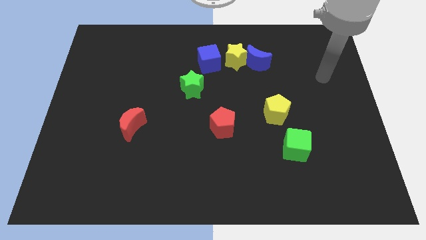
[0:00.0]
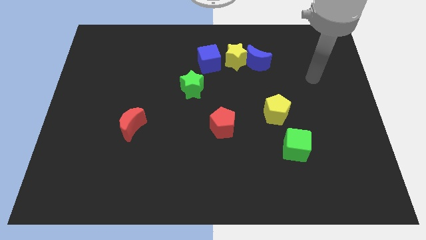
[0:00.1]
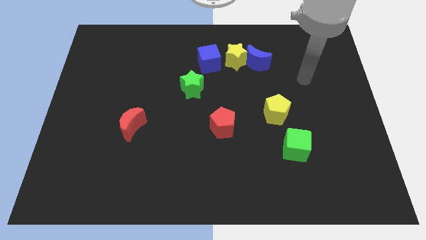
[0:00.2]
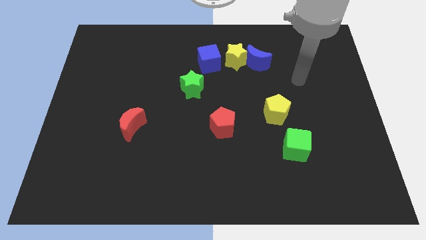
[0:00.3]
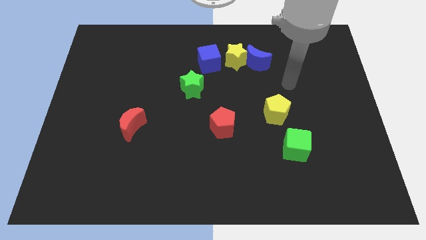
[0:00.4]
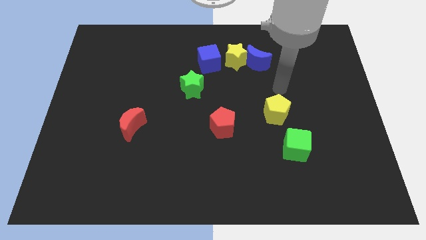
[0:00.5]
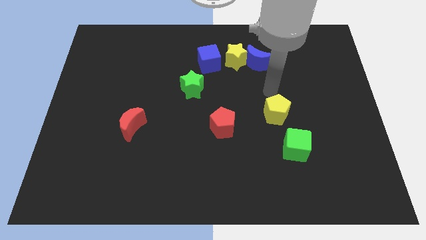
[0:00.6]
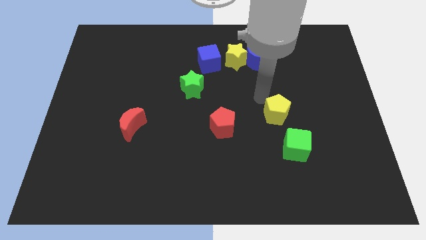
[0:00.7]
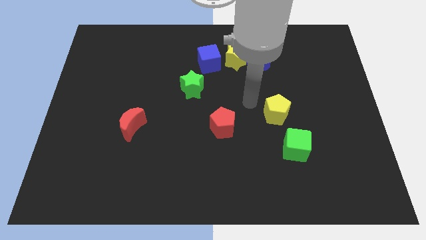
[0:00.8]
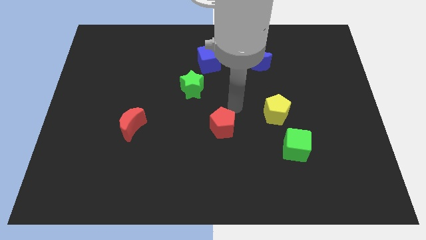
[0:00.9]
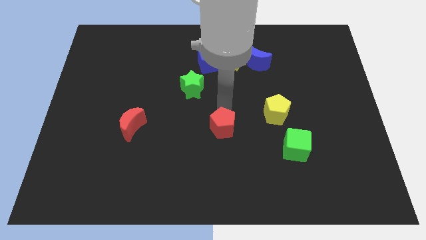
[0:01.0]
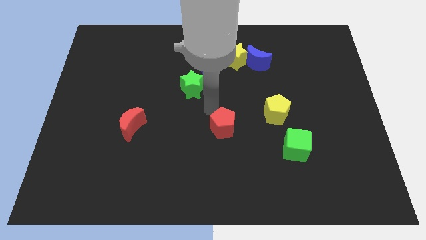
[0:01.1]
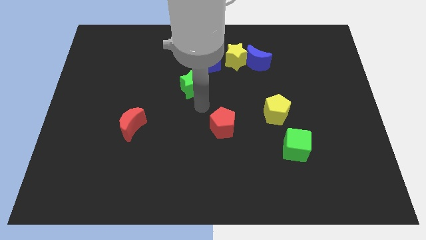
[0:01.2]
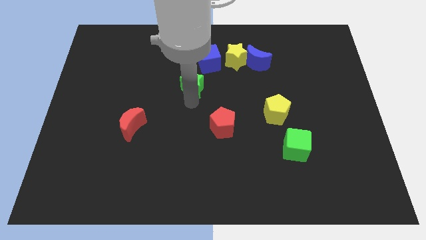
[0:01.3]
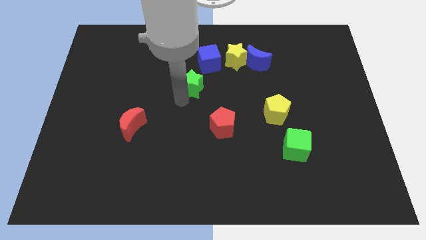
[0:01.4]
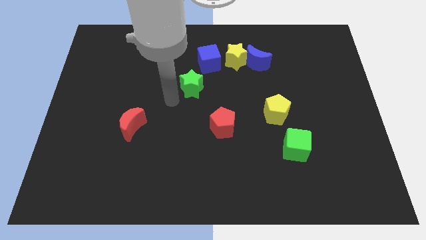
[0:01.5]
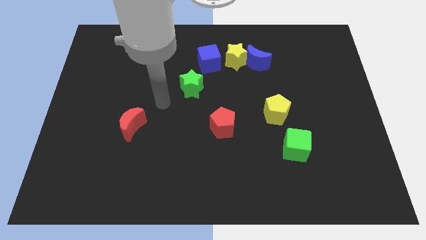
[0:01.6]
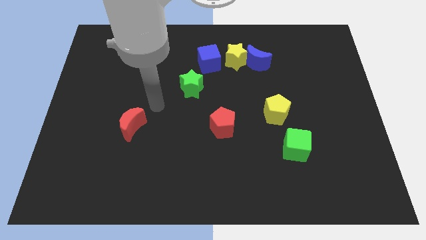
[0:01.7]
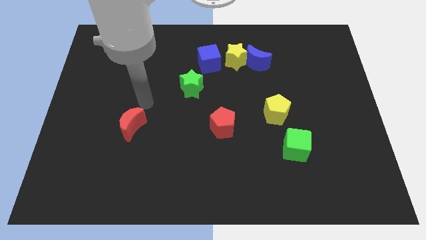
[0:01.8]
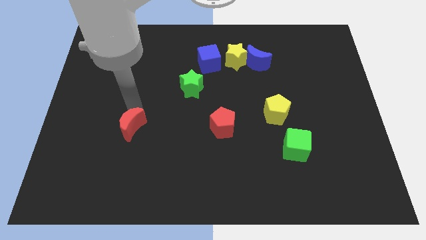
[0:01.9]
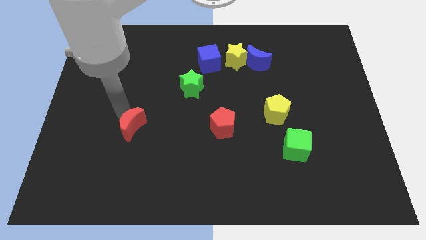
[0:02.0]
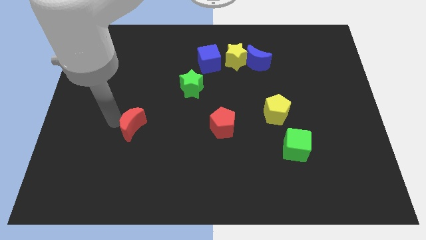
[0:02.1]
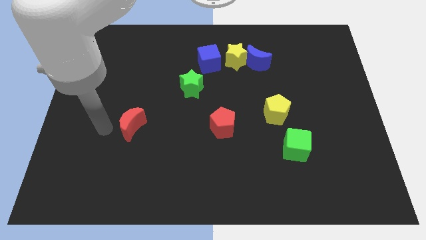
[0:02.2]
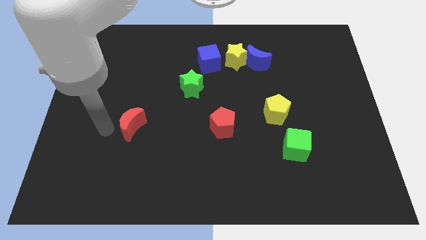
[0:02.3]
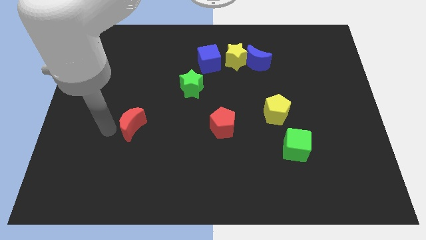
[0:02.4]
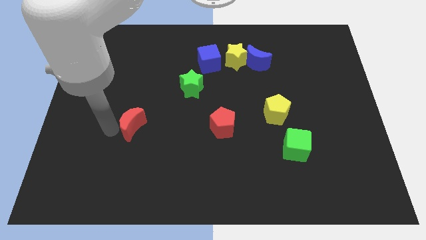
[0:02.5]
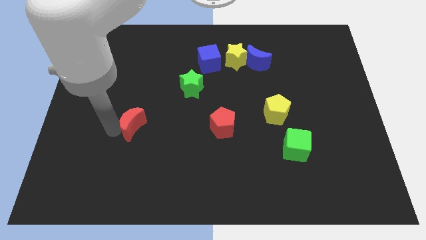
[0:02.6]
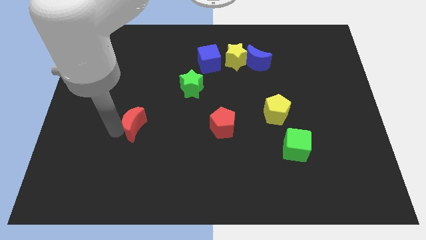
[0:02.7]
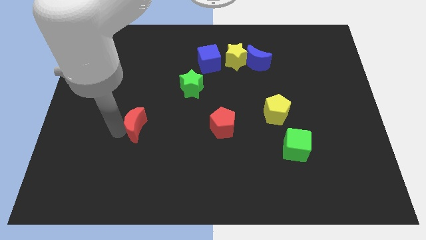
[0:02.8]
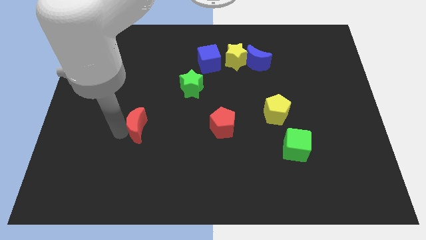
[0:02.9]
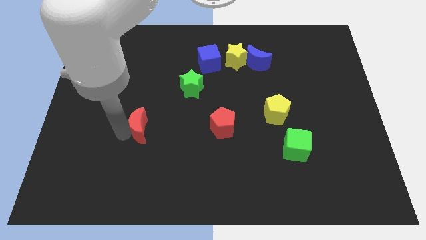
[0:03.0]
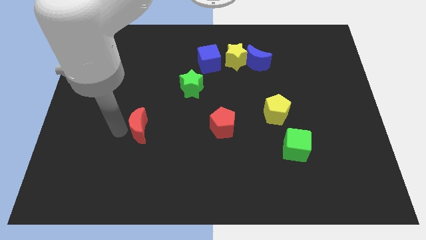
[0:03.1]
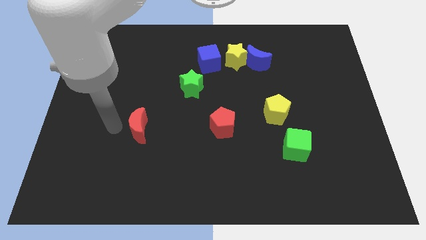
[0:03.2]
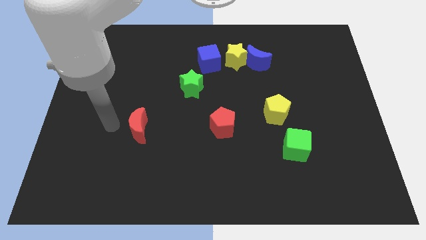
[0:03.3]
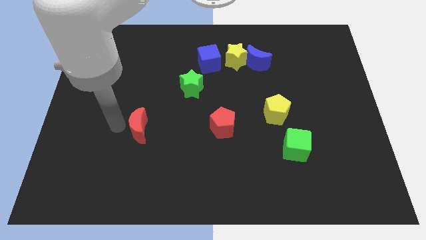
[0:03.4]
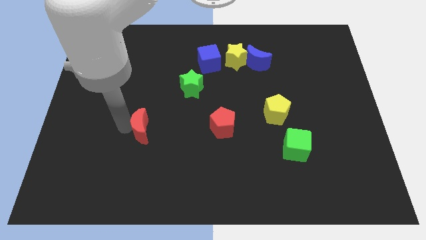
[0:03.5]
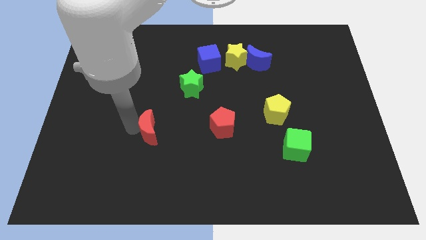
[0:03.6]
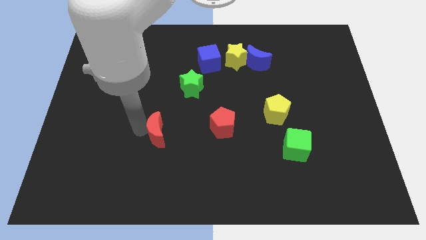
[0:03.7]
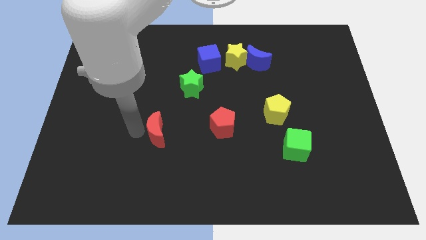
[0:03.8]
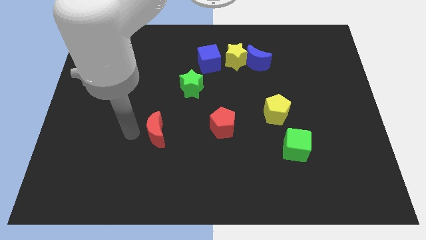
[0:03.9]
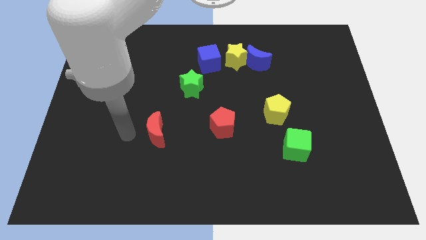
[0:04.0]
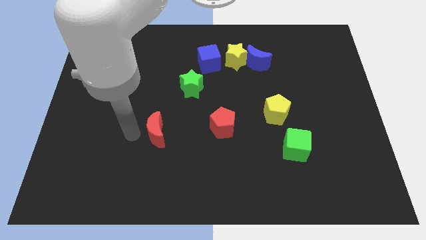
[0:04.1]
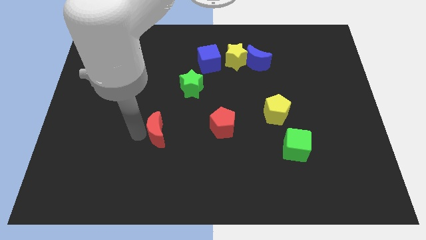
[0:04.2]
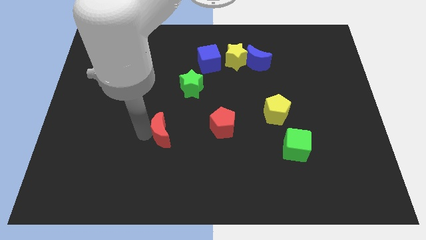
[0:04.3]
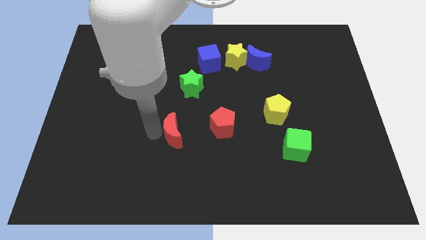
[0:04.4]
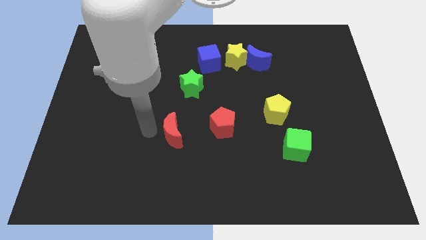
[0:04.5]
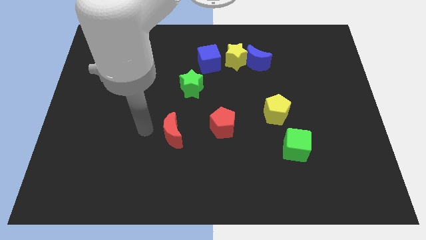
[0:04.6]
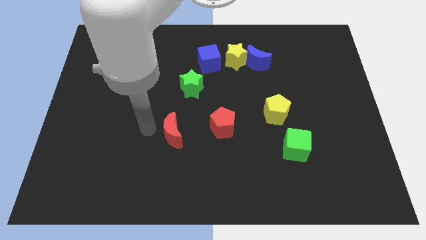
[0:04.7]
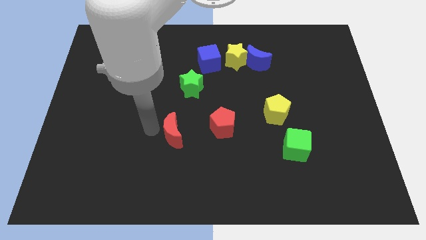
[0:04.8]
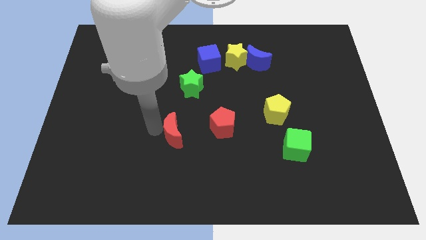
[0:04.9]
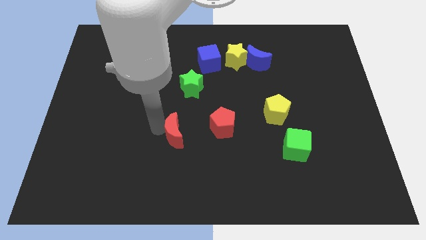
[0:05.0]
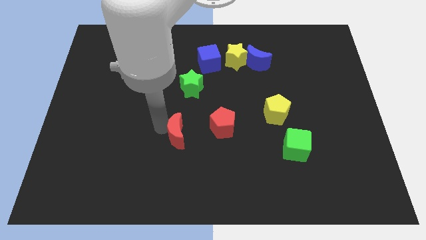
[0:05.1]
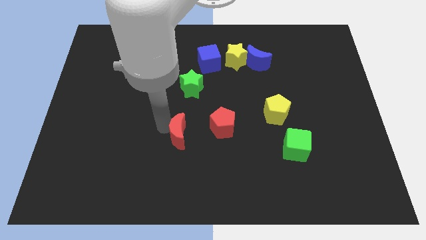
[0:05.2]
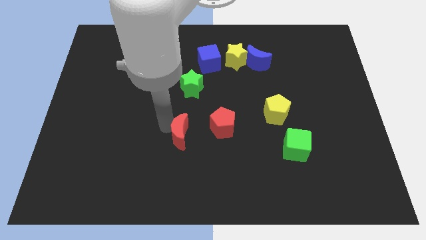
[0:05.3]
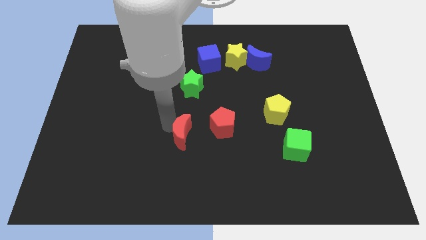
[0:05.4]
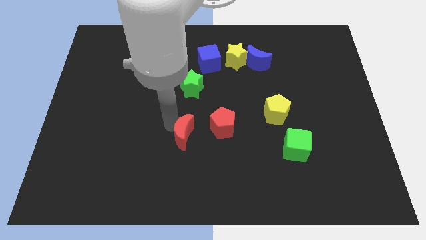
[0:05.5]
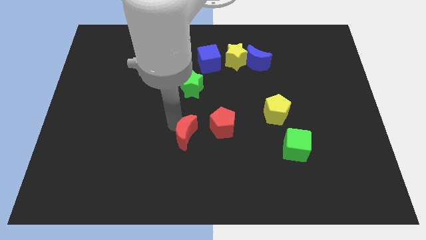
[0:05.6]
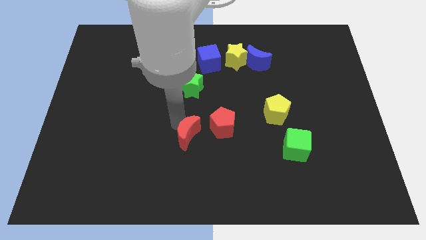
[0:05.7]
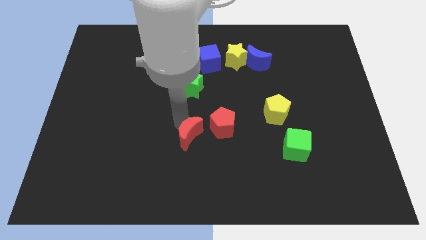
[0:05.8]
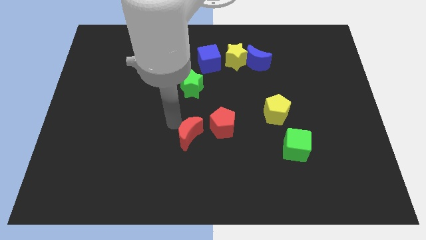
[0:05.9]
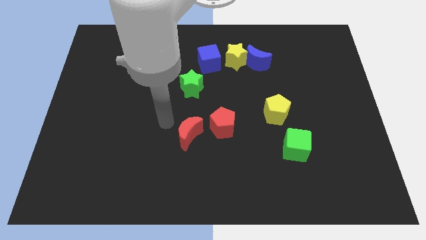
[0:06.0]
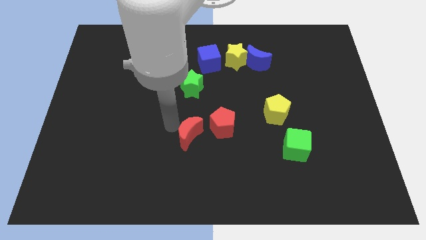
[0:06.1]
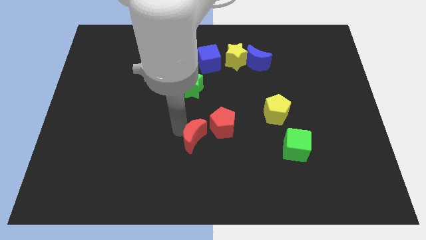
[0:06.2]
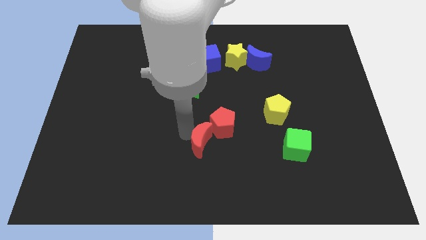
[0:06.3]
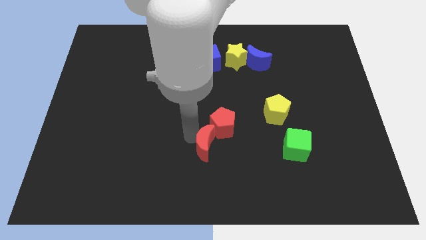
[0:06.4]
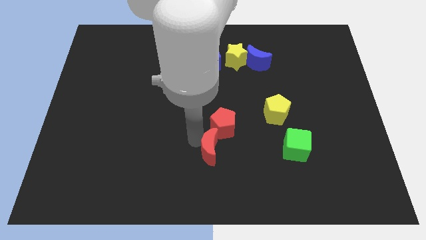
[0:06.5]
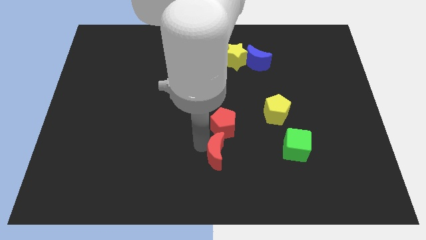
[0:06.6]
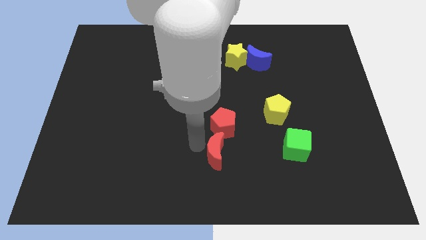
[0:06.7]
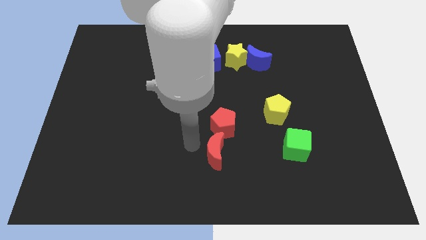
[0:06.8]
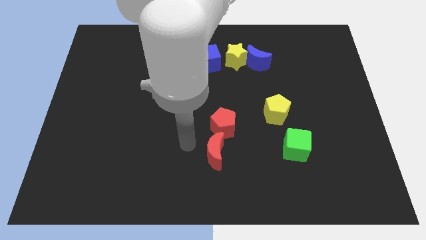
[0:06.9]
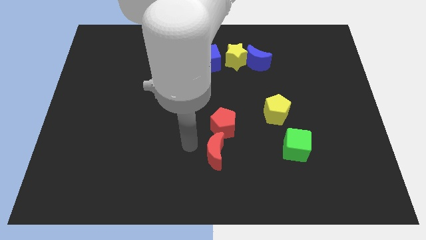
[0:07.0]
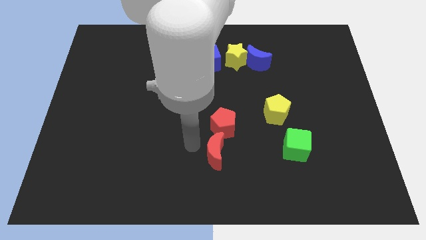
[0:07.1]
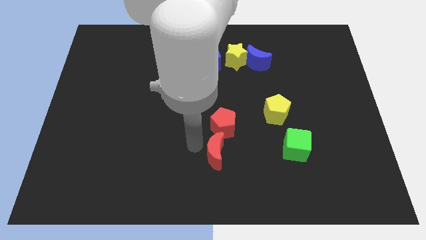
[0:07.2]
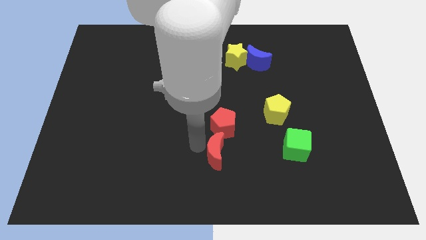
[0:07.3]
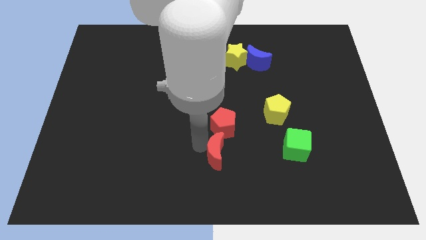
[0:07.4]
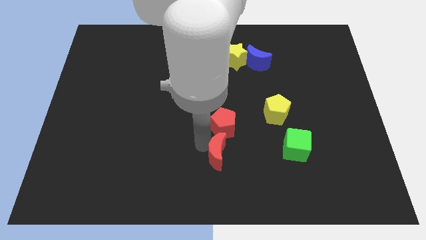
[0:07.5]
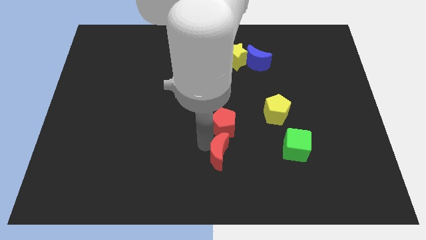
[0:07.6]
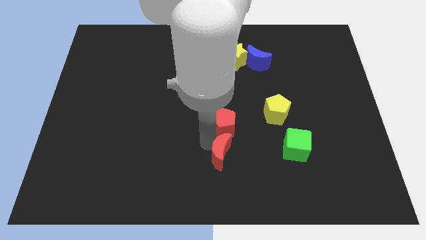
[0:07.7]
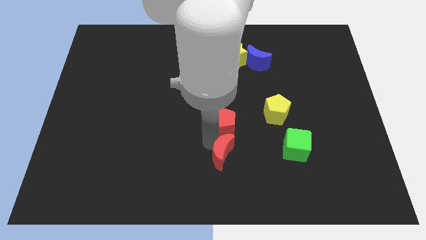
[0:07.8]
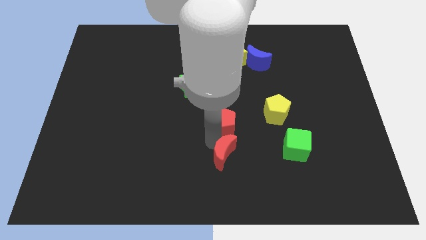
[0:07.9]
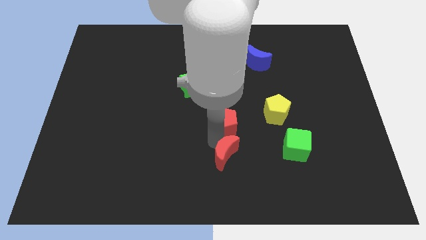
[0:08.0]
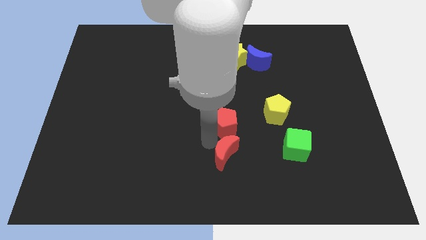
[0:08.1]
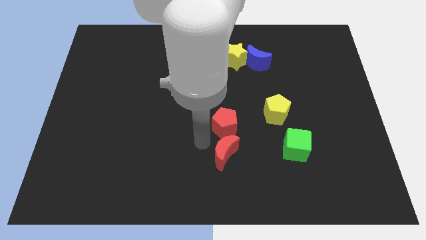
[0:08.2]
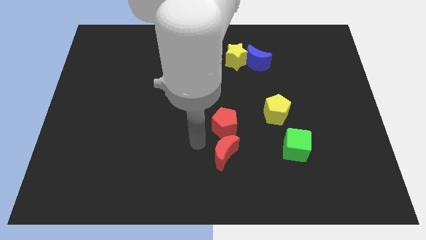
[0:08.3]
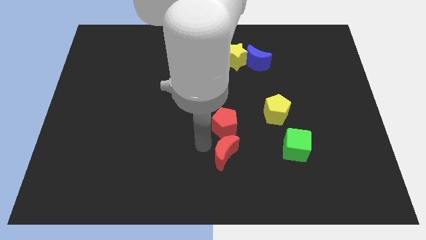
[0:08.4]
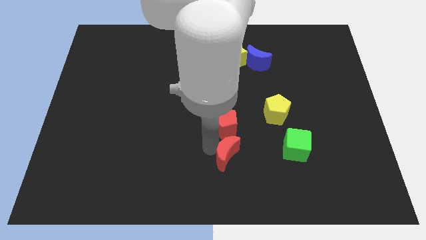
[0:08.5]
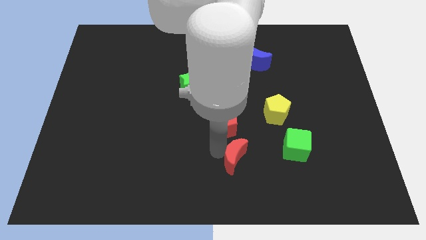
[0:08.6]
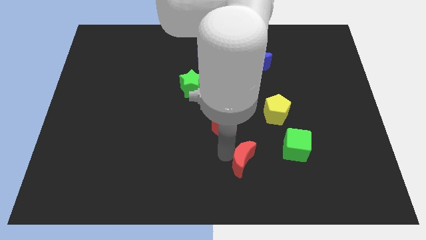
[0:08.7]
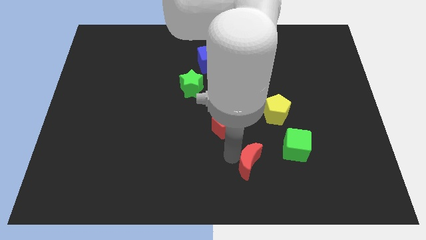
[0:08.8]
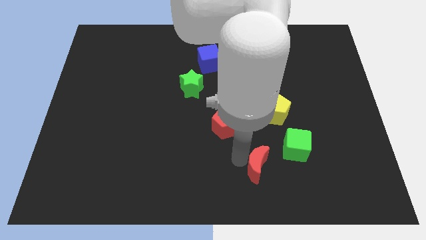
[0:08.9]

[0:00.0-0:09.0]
slide the red moon to the bottom left of the green cube
